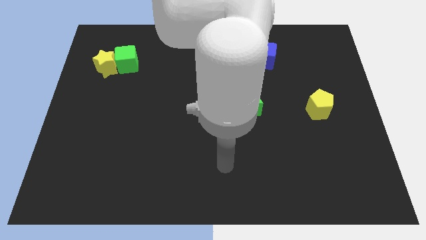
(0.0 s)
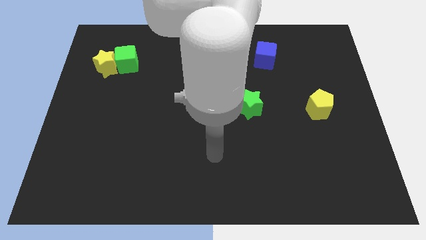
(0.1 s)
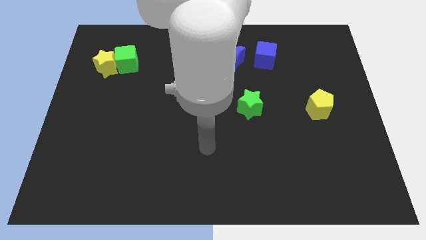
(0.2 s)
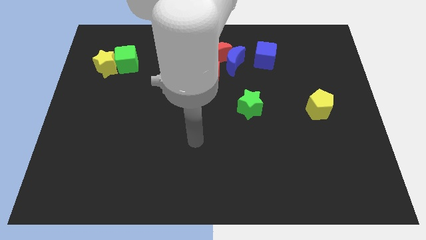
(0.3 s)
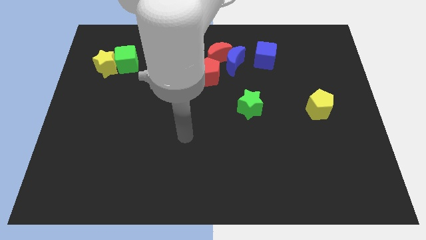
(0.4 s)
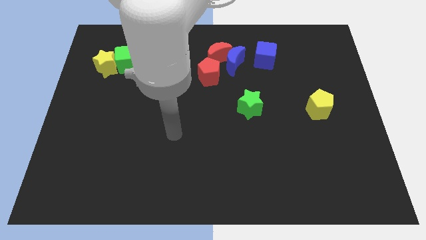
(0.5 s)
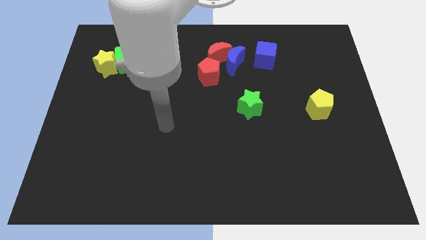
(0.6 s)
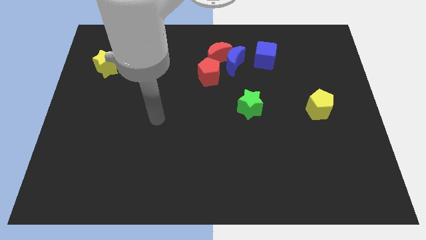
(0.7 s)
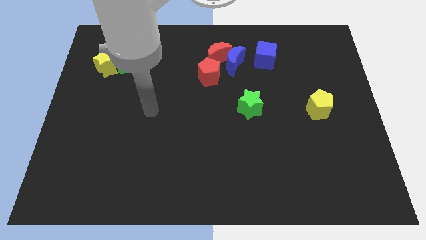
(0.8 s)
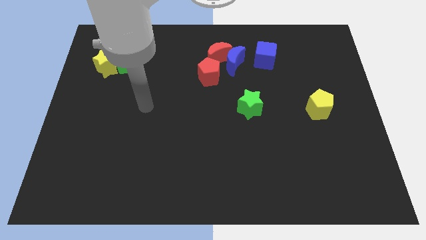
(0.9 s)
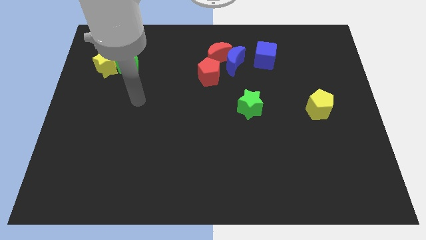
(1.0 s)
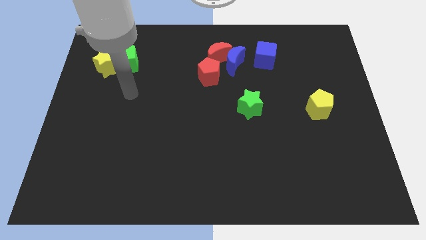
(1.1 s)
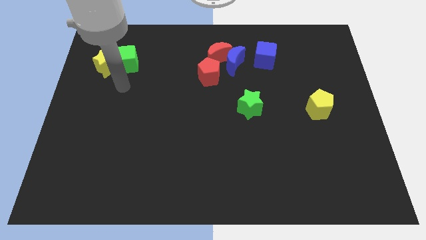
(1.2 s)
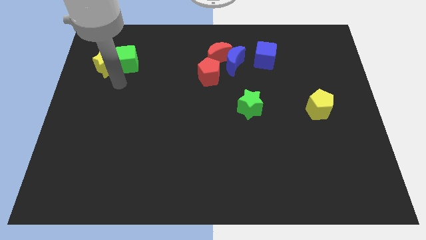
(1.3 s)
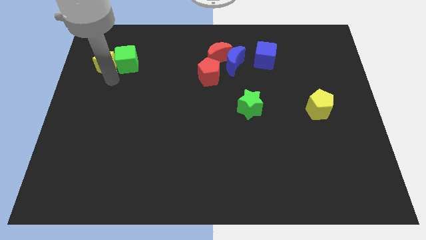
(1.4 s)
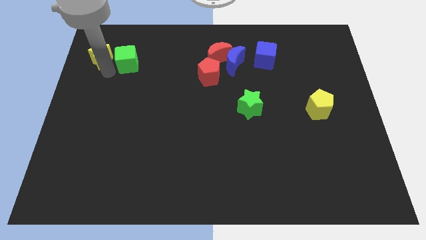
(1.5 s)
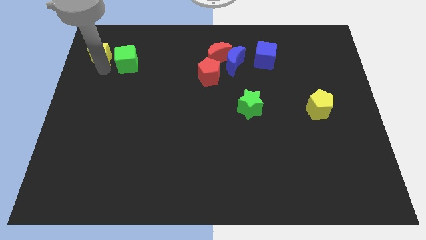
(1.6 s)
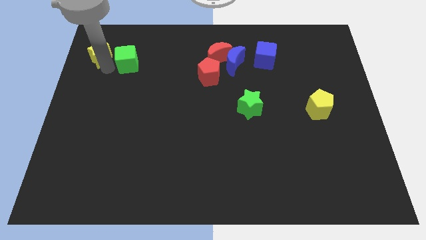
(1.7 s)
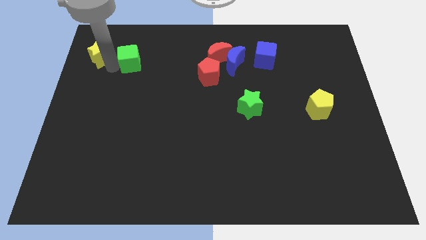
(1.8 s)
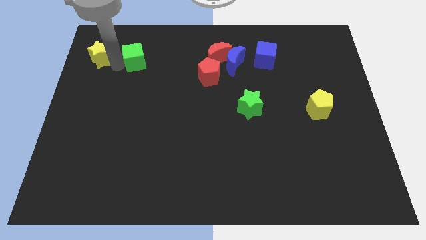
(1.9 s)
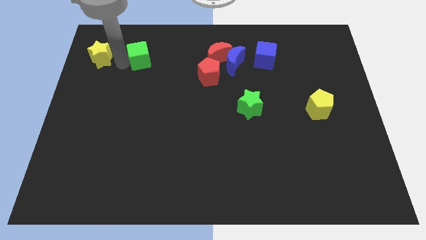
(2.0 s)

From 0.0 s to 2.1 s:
move the green cube away from the yellow star

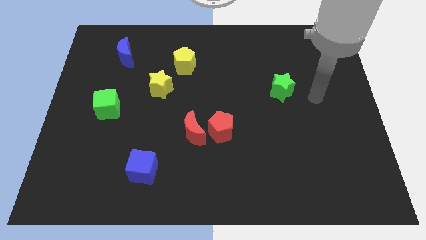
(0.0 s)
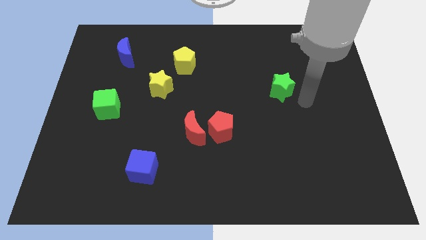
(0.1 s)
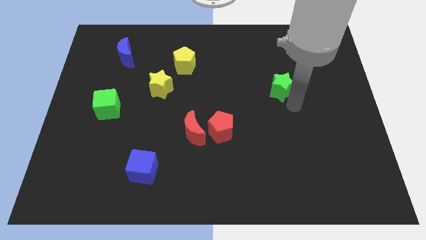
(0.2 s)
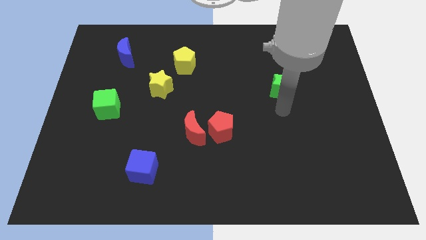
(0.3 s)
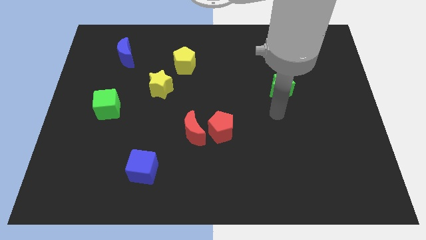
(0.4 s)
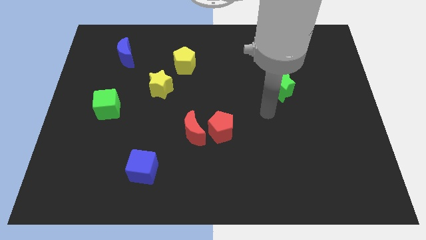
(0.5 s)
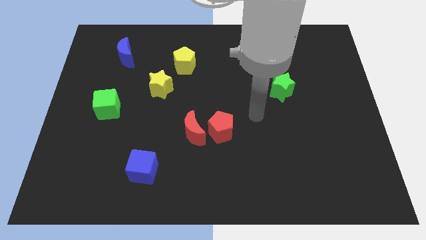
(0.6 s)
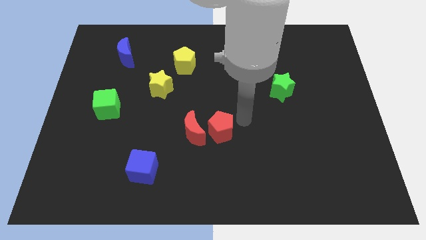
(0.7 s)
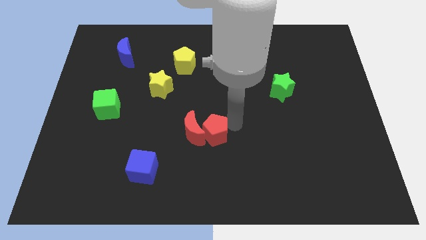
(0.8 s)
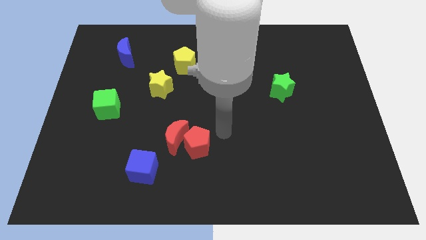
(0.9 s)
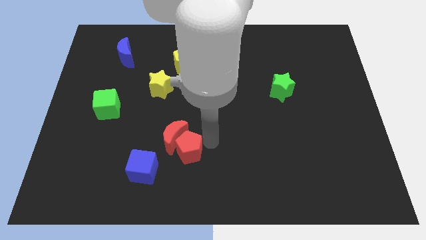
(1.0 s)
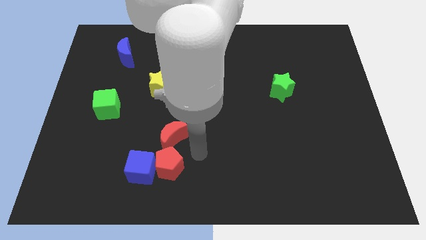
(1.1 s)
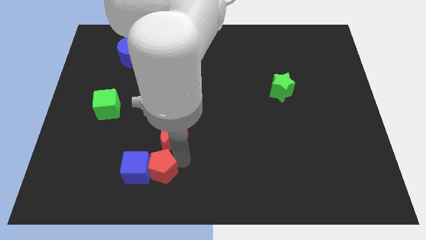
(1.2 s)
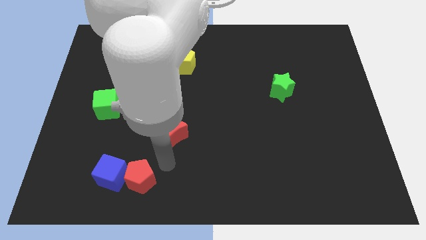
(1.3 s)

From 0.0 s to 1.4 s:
move the red moon away from the red pentagon

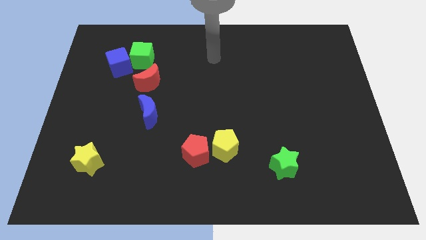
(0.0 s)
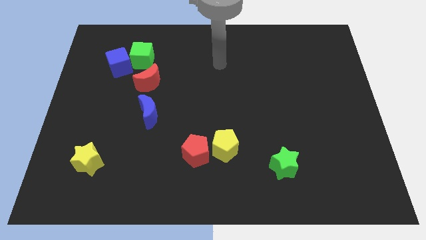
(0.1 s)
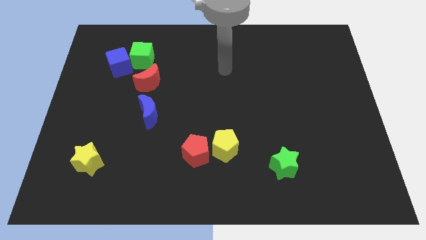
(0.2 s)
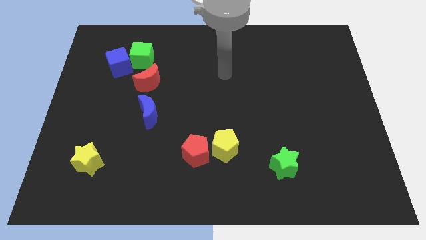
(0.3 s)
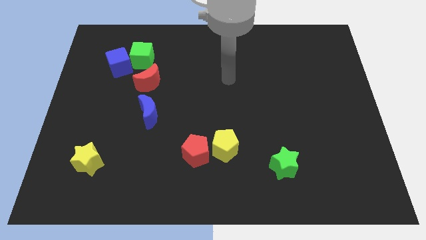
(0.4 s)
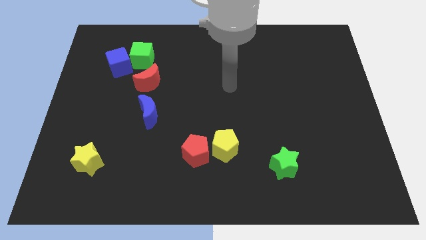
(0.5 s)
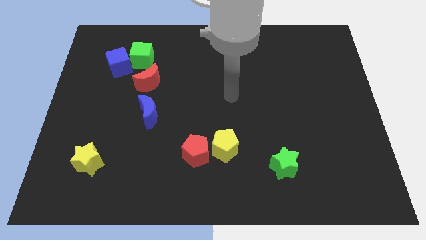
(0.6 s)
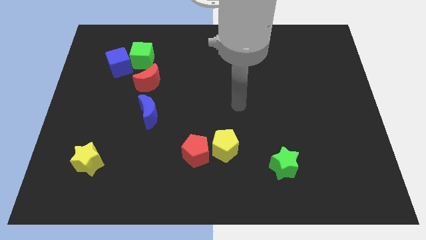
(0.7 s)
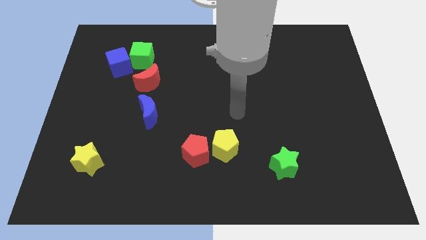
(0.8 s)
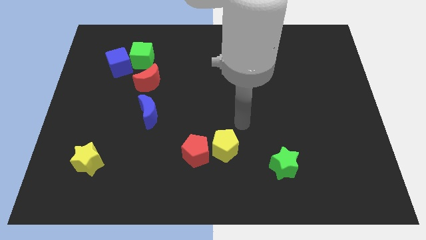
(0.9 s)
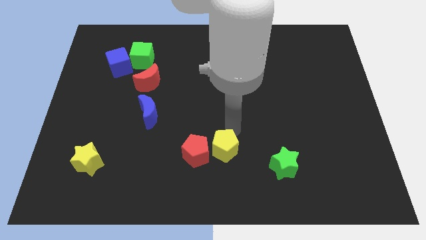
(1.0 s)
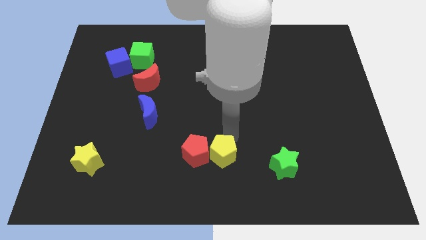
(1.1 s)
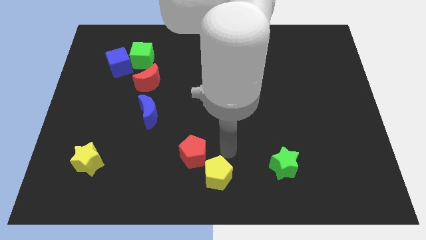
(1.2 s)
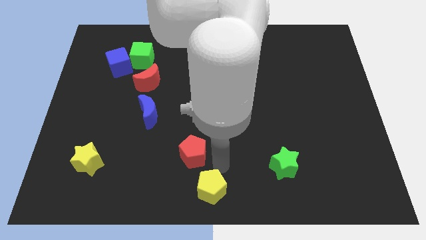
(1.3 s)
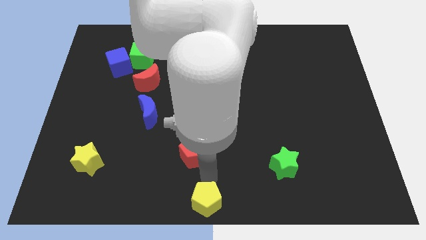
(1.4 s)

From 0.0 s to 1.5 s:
move the red pentagon away from the yellow pentagon

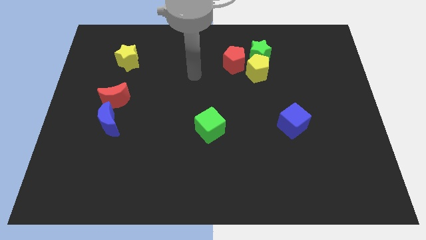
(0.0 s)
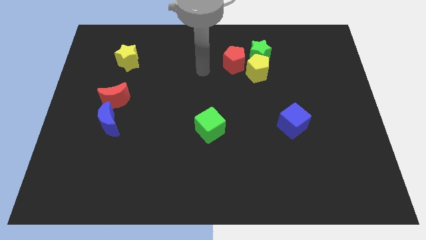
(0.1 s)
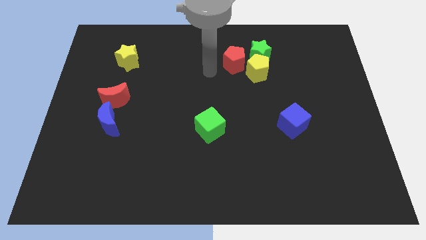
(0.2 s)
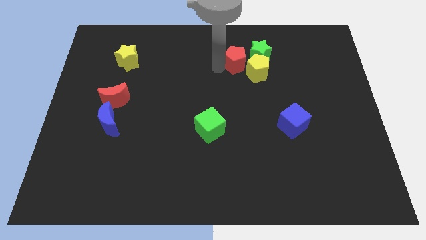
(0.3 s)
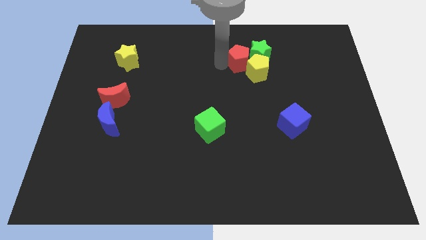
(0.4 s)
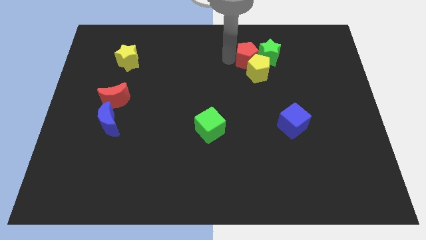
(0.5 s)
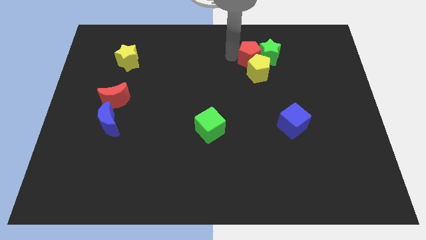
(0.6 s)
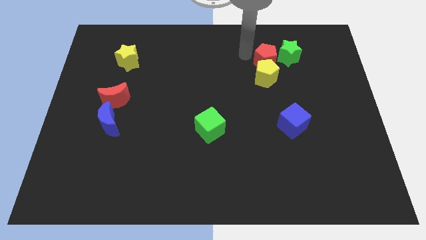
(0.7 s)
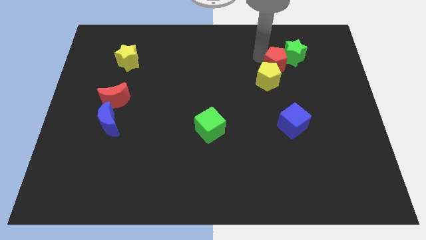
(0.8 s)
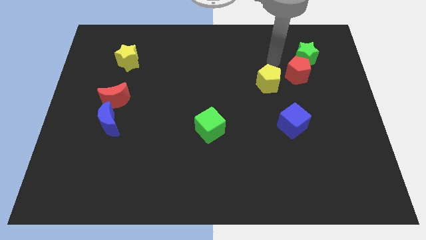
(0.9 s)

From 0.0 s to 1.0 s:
move the yellow pentagon away from the green star and red pentagon

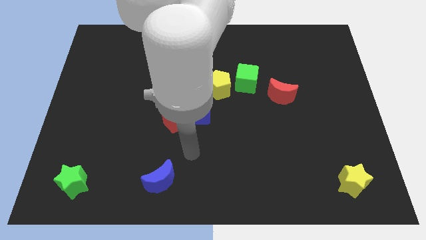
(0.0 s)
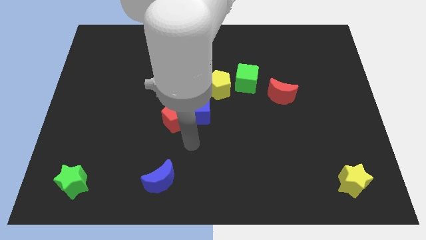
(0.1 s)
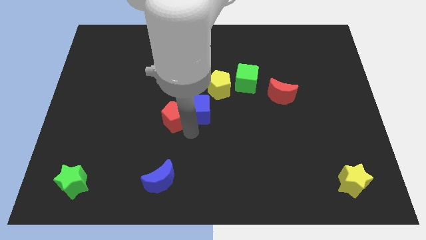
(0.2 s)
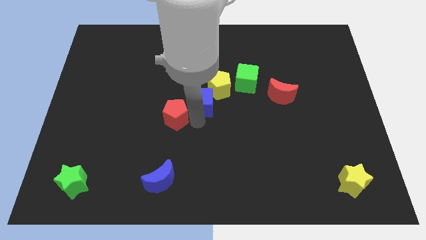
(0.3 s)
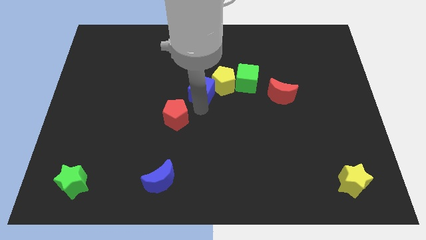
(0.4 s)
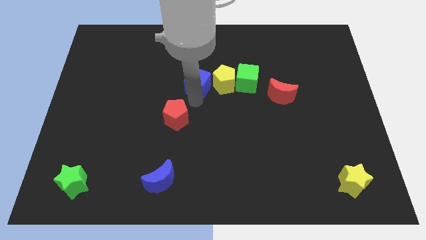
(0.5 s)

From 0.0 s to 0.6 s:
pull the red pentagon apart from the blue cube

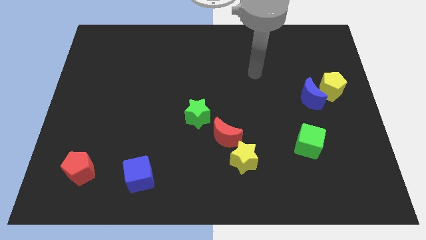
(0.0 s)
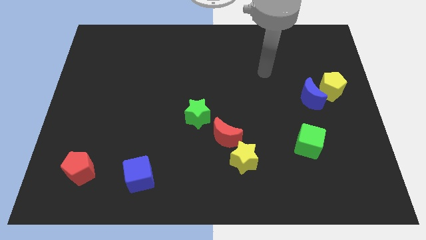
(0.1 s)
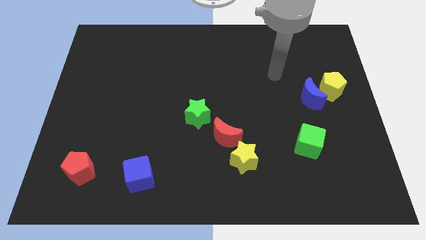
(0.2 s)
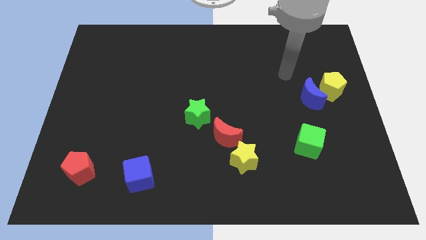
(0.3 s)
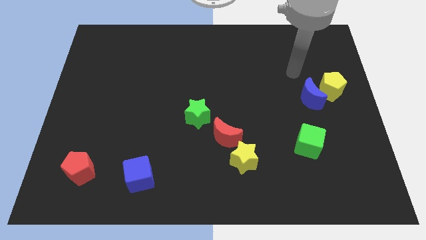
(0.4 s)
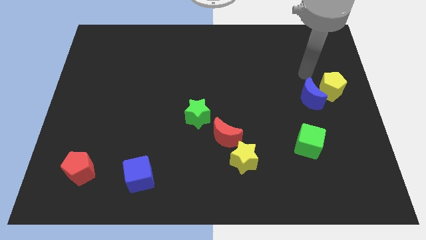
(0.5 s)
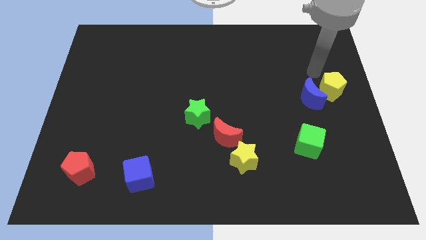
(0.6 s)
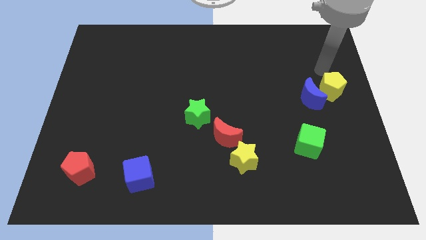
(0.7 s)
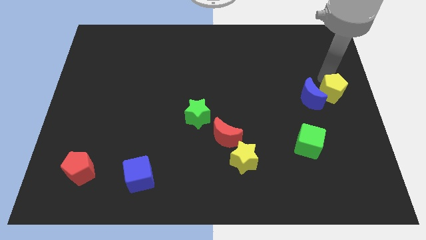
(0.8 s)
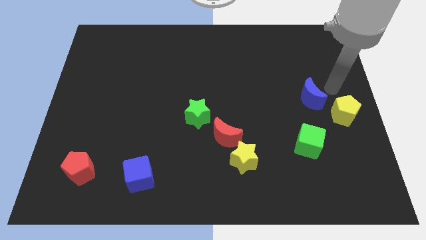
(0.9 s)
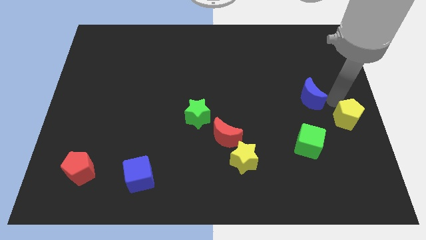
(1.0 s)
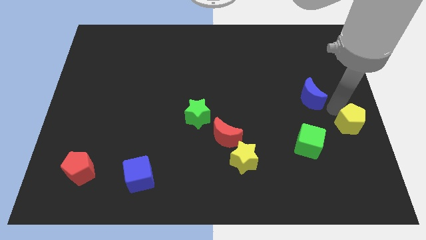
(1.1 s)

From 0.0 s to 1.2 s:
move the blue moon away from the yellow pentagon

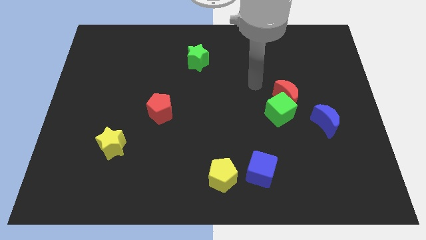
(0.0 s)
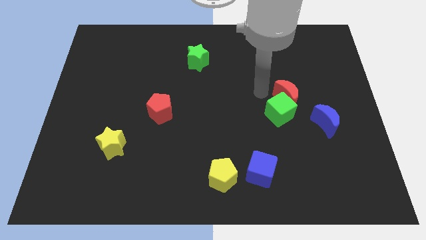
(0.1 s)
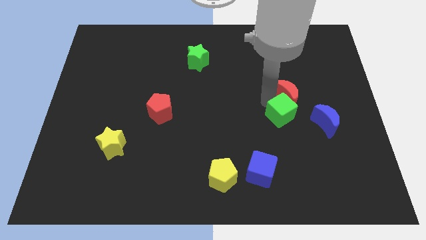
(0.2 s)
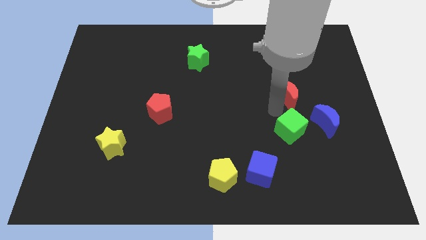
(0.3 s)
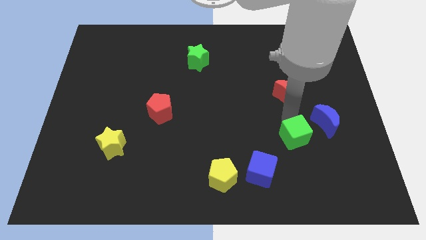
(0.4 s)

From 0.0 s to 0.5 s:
separate the red moon from the green cube

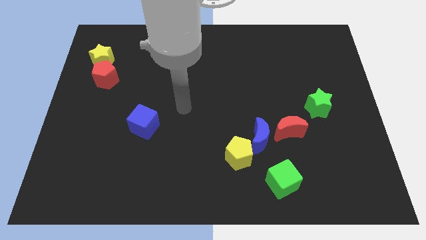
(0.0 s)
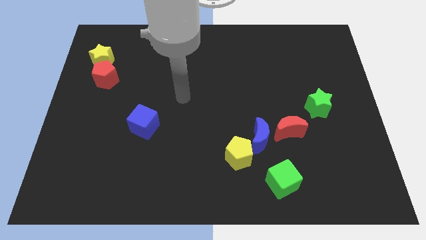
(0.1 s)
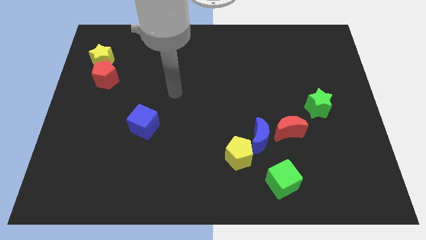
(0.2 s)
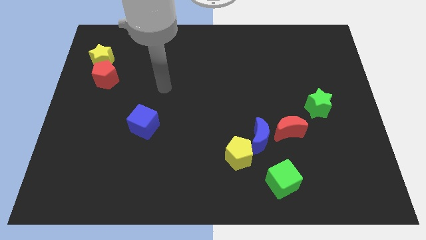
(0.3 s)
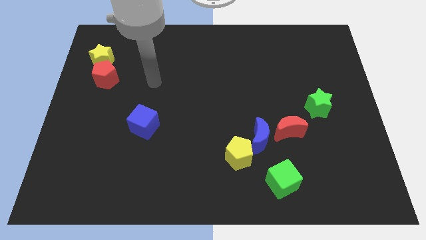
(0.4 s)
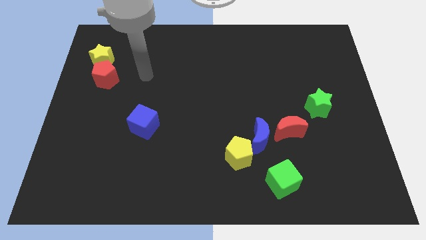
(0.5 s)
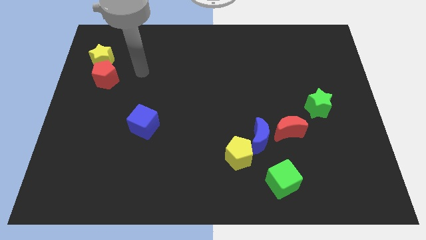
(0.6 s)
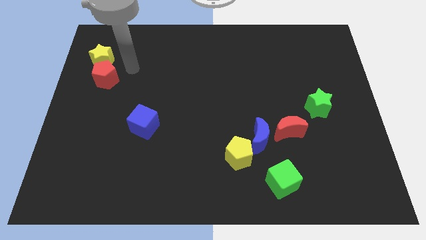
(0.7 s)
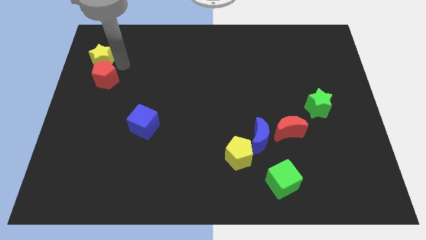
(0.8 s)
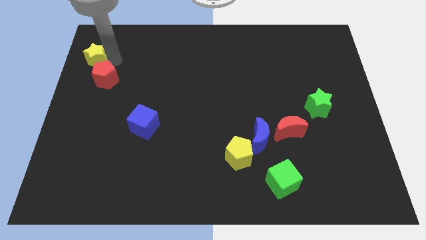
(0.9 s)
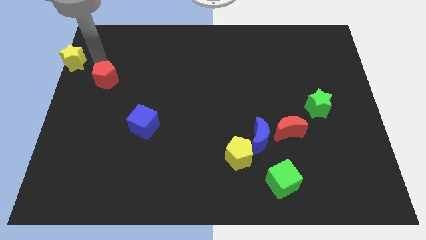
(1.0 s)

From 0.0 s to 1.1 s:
pull the red pentagon apart from the yellow star
